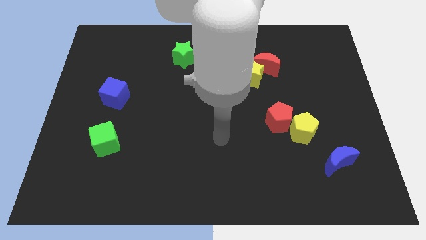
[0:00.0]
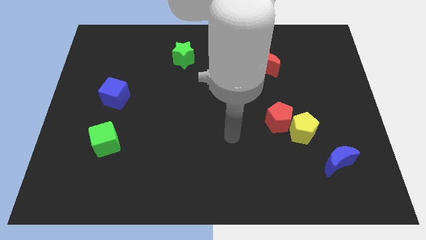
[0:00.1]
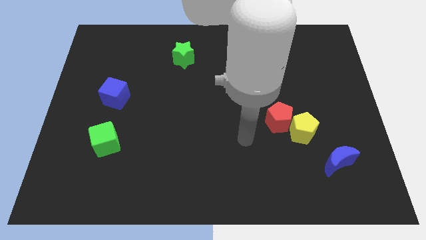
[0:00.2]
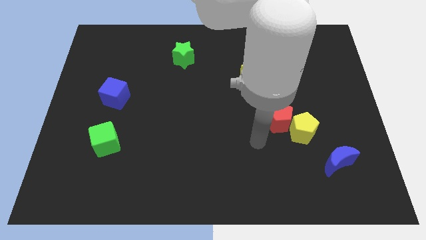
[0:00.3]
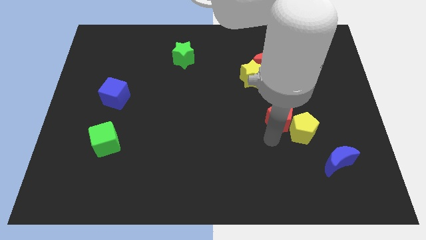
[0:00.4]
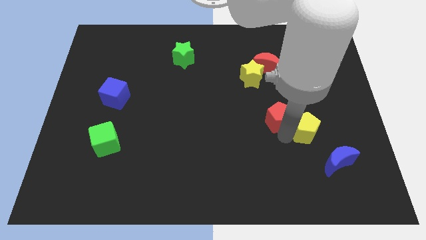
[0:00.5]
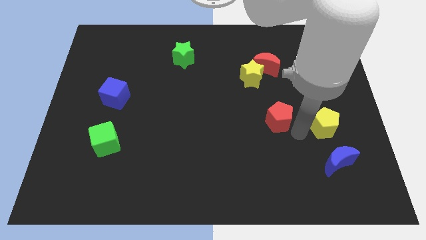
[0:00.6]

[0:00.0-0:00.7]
move the red pentagon away from the yellow pentagon

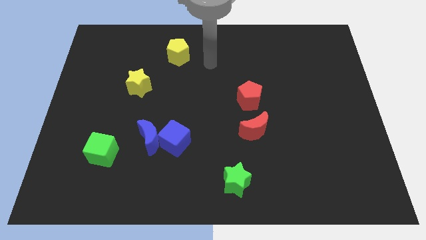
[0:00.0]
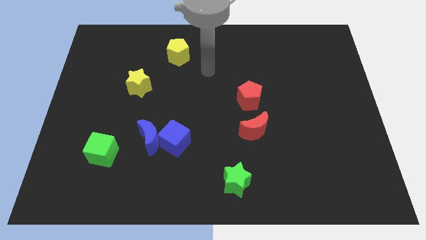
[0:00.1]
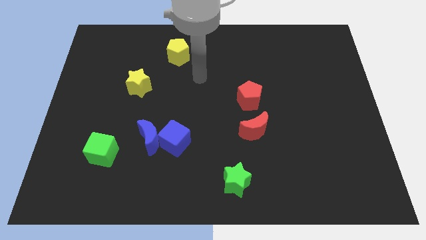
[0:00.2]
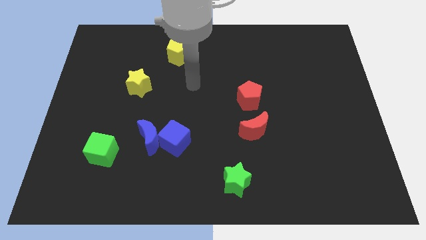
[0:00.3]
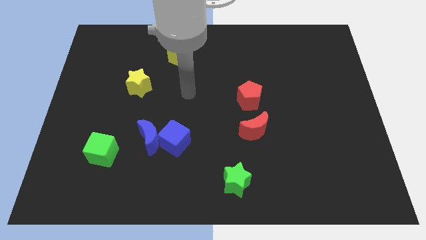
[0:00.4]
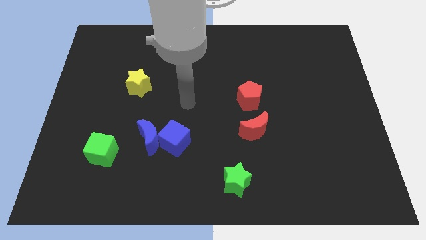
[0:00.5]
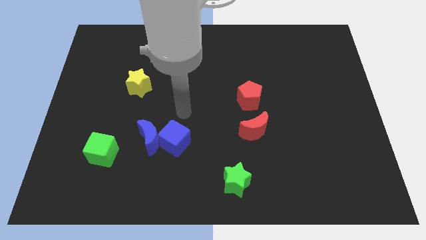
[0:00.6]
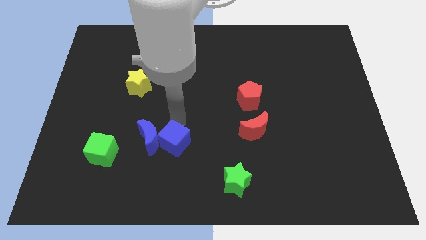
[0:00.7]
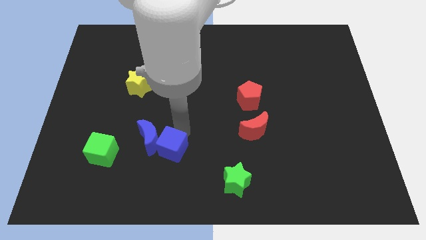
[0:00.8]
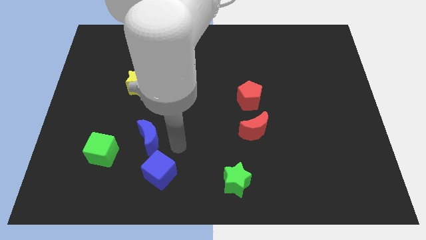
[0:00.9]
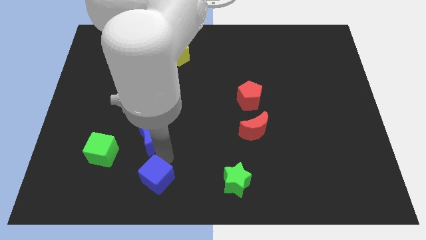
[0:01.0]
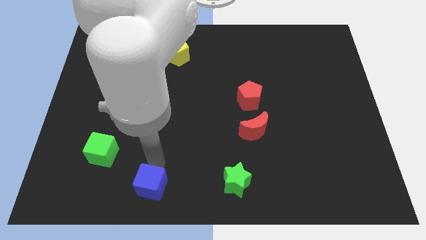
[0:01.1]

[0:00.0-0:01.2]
move the blue moon away from the blue cube

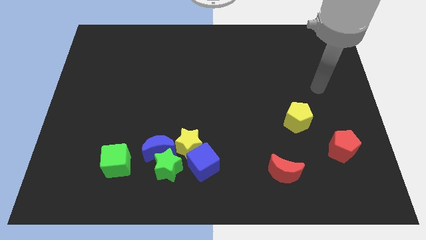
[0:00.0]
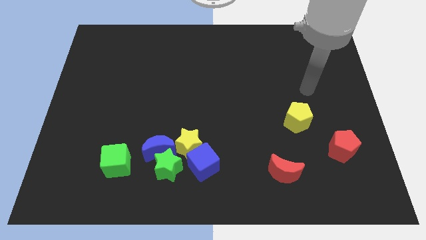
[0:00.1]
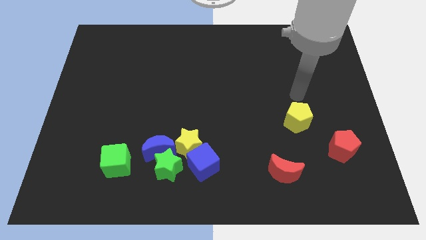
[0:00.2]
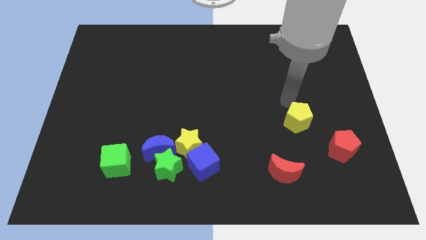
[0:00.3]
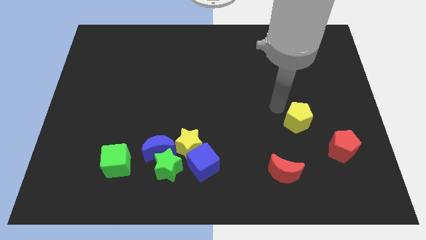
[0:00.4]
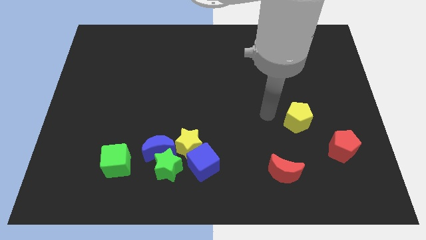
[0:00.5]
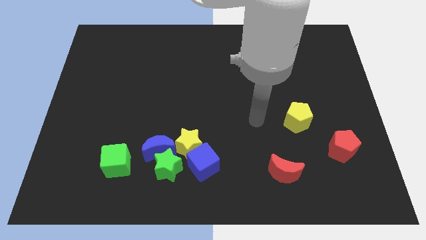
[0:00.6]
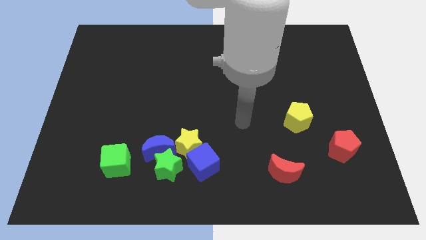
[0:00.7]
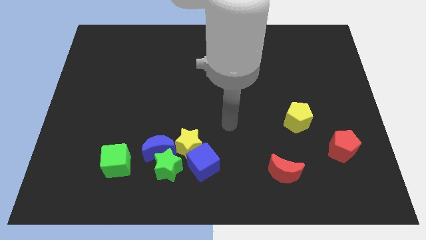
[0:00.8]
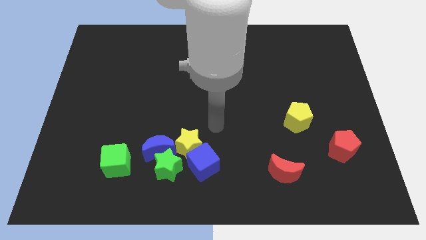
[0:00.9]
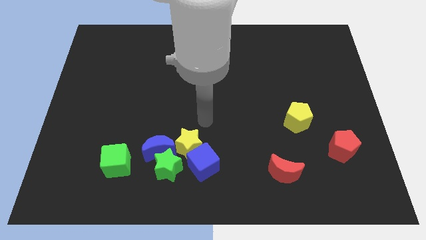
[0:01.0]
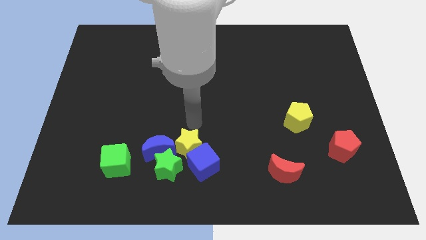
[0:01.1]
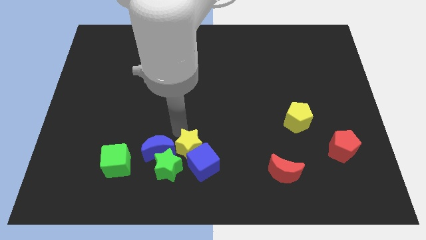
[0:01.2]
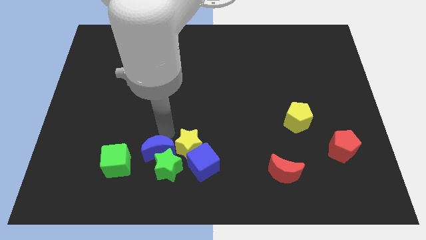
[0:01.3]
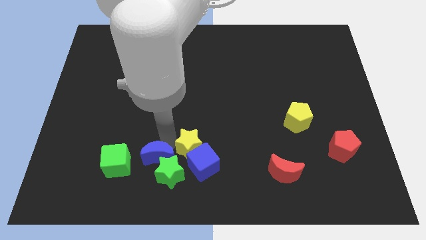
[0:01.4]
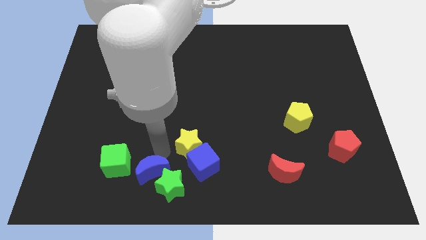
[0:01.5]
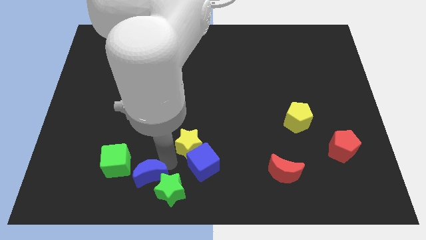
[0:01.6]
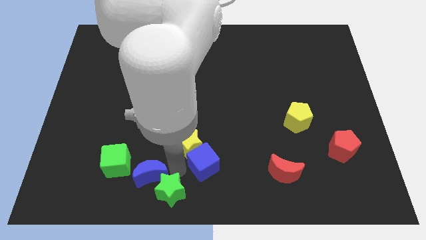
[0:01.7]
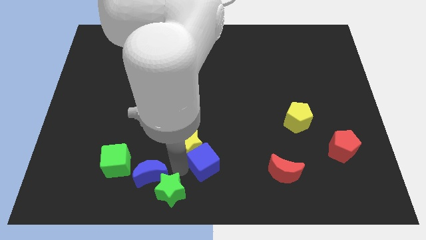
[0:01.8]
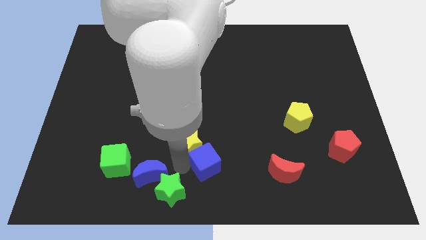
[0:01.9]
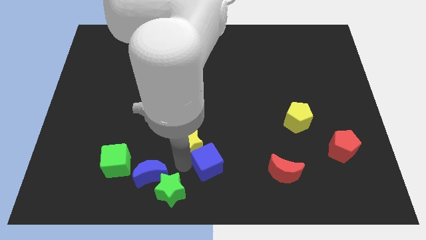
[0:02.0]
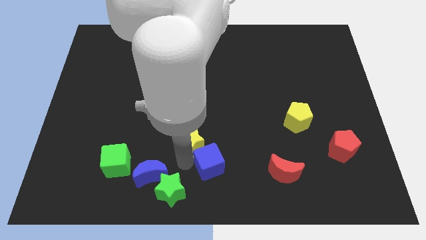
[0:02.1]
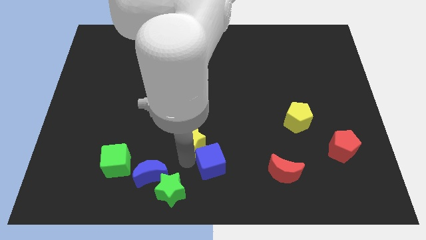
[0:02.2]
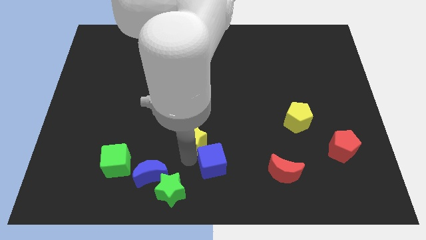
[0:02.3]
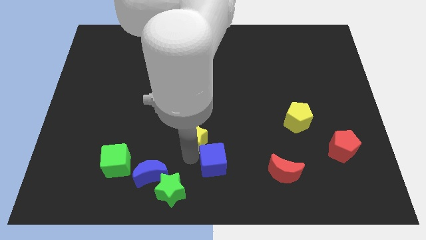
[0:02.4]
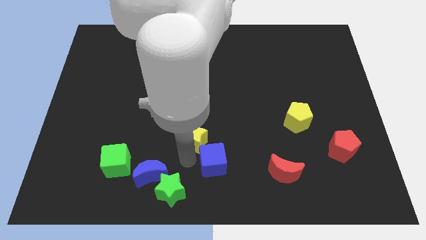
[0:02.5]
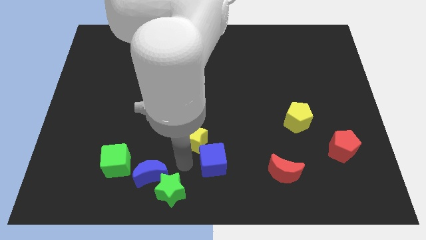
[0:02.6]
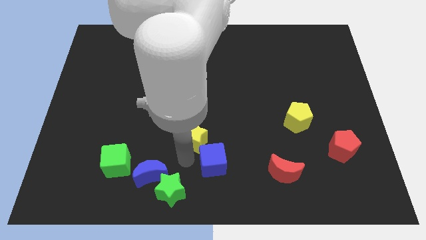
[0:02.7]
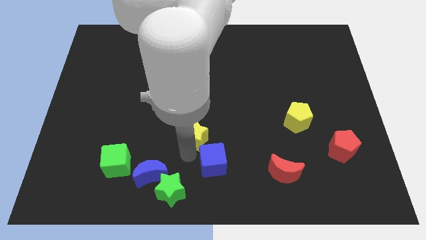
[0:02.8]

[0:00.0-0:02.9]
move the yellow star away from the group

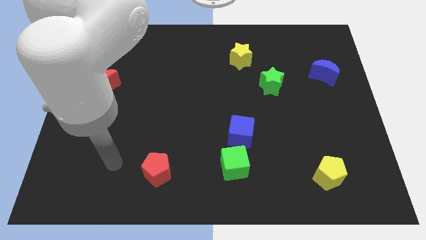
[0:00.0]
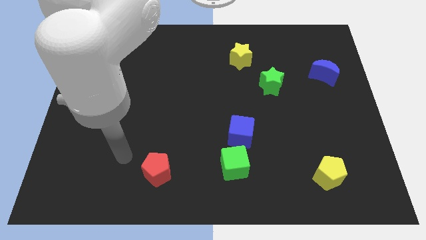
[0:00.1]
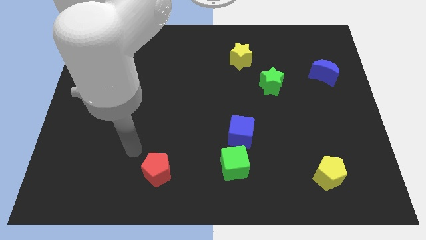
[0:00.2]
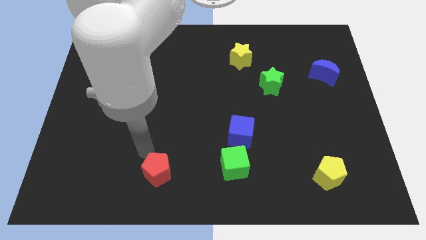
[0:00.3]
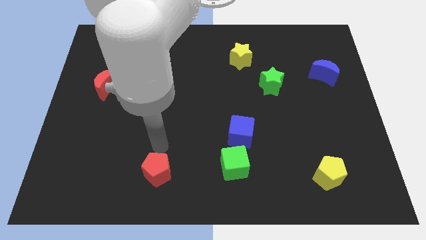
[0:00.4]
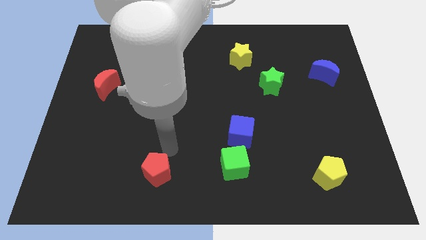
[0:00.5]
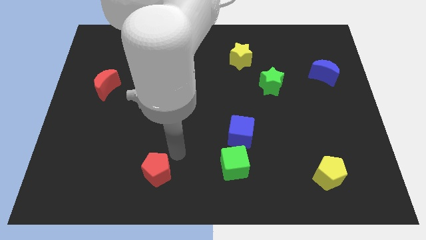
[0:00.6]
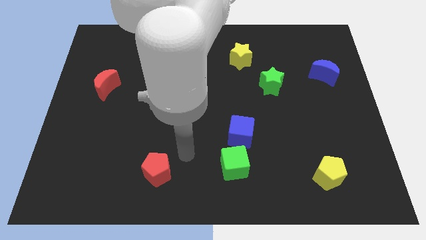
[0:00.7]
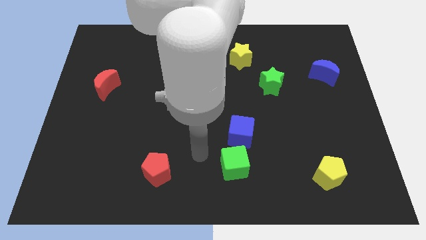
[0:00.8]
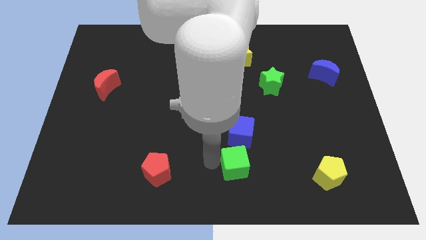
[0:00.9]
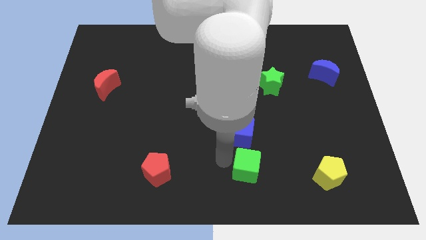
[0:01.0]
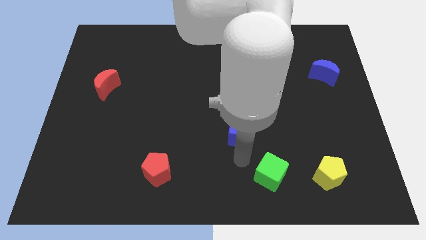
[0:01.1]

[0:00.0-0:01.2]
separate the blue cube from the green cube

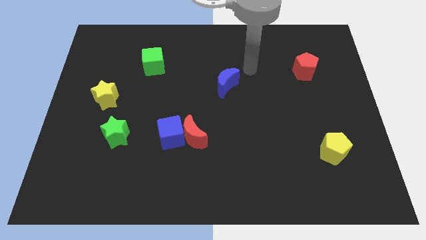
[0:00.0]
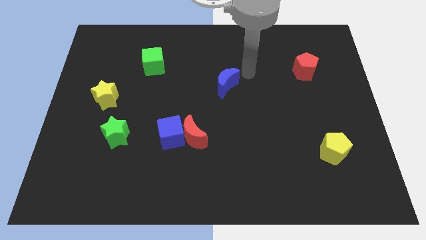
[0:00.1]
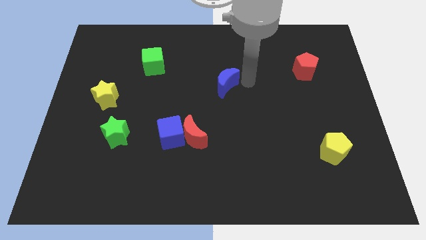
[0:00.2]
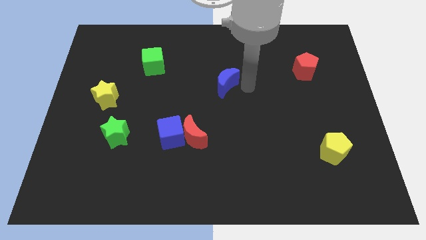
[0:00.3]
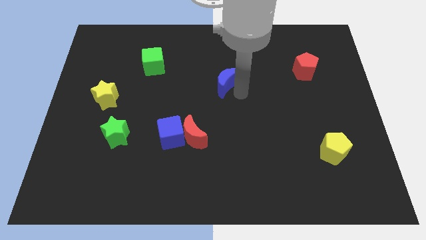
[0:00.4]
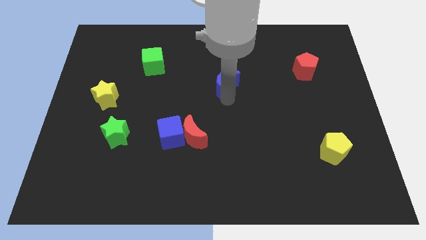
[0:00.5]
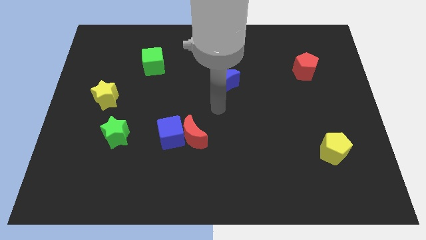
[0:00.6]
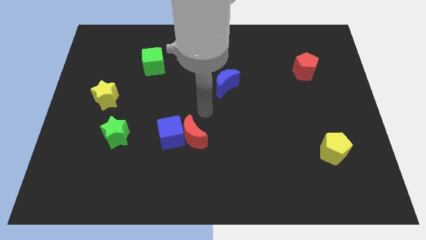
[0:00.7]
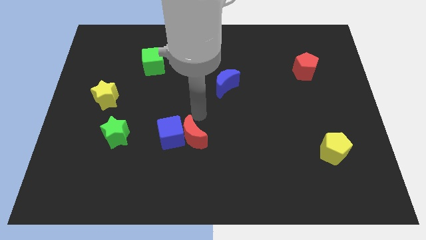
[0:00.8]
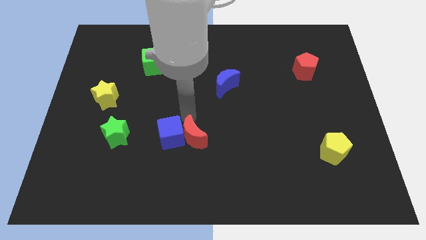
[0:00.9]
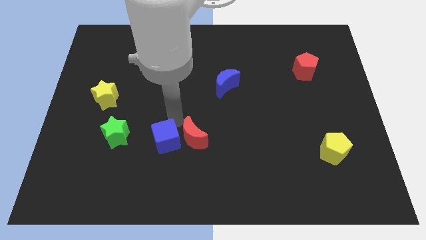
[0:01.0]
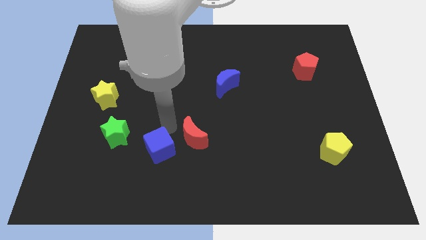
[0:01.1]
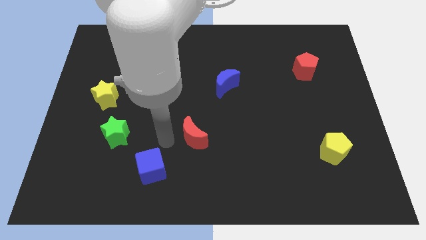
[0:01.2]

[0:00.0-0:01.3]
move the red moon away from the blue cube

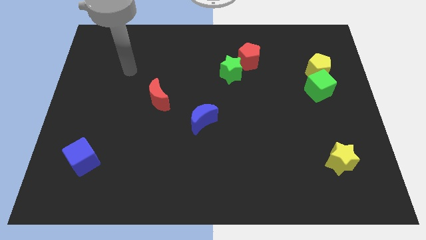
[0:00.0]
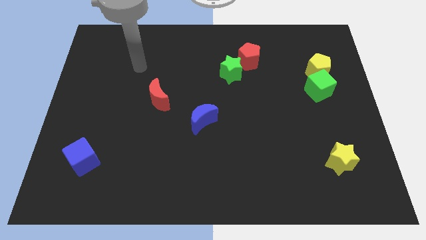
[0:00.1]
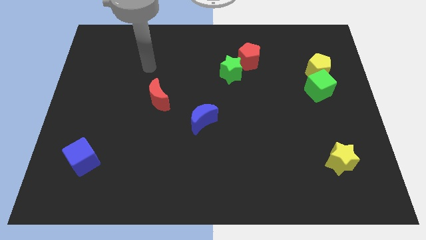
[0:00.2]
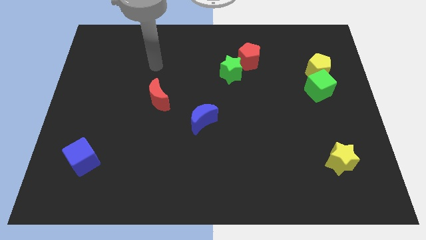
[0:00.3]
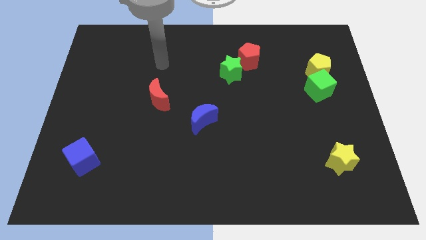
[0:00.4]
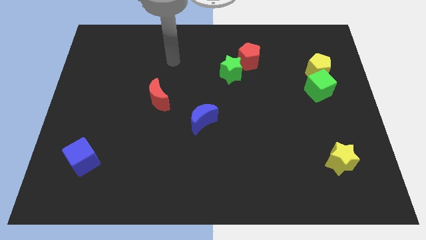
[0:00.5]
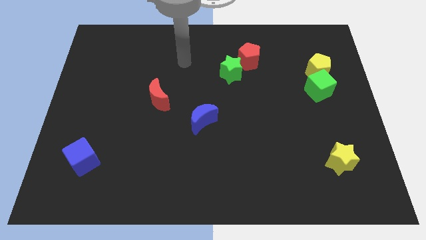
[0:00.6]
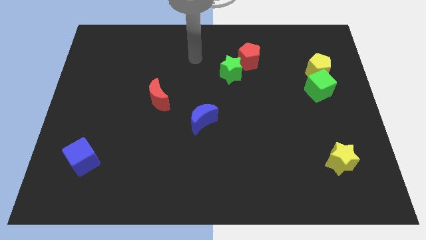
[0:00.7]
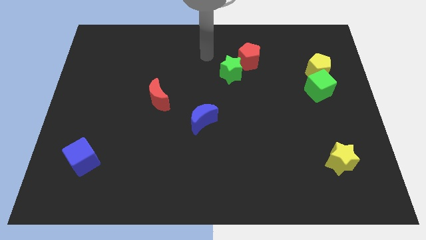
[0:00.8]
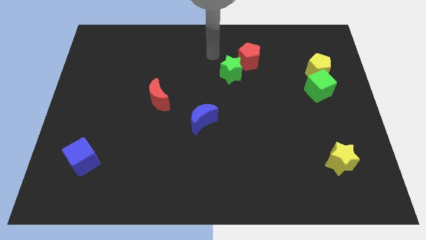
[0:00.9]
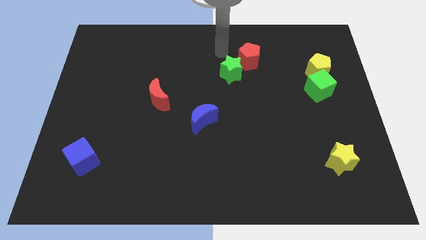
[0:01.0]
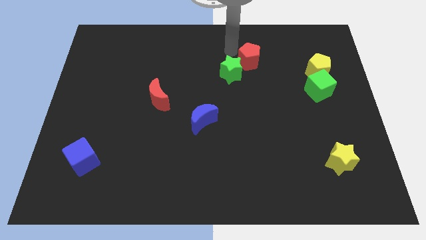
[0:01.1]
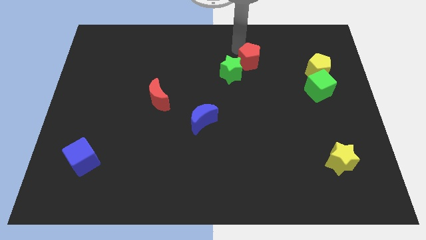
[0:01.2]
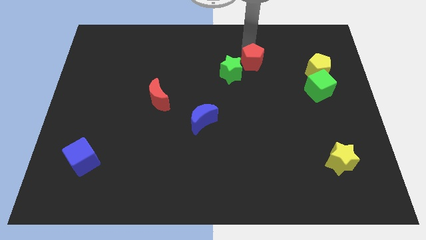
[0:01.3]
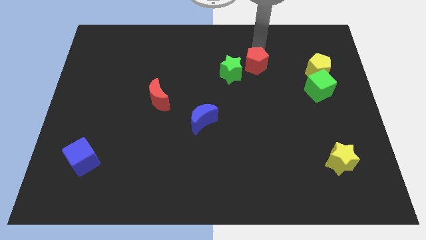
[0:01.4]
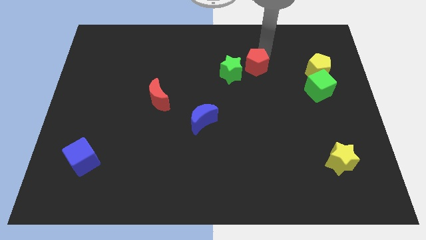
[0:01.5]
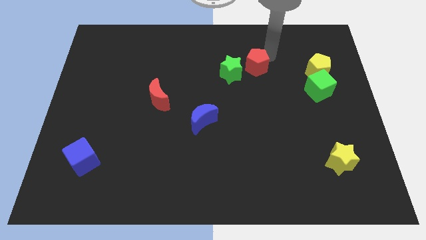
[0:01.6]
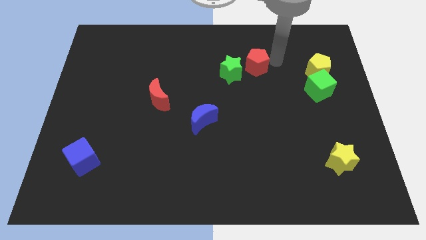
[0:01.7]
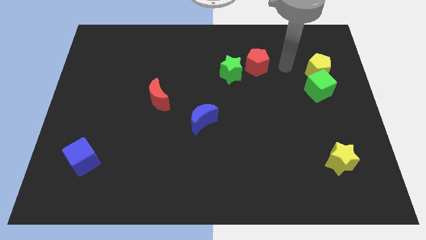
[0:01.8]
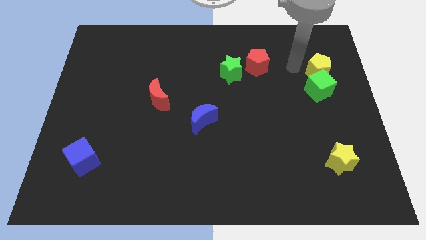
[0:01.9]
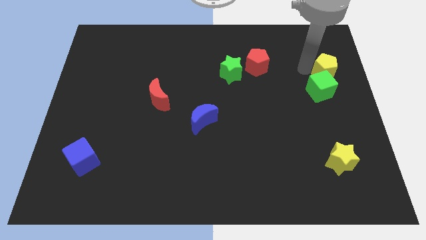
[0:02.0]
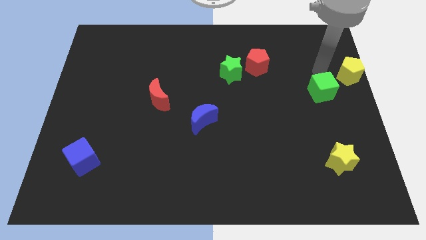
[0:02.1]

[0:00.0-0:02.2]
pull the green cube apart from the yellow pentagon
